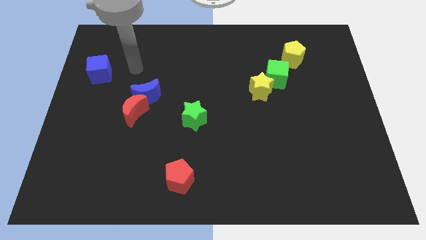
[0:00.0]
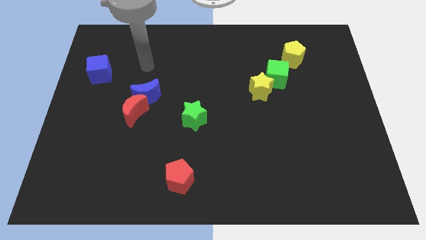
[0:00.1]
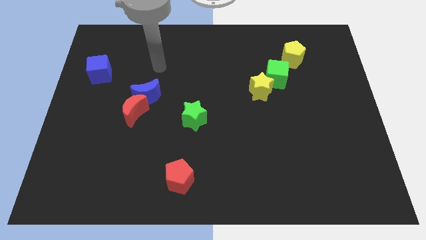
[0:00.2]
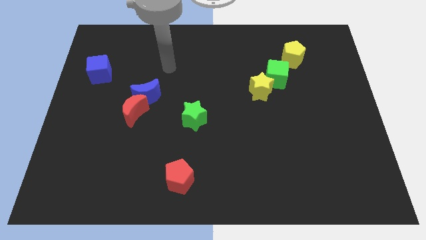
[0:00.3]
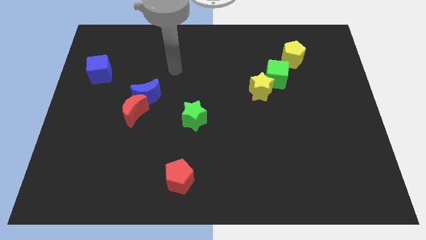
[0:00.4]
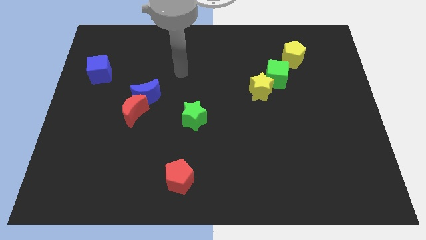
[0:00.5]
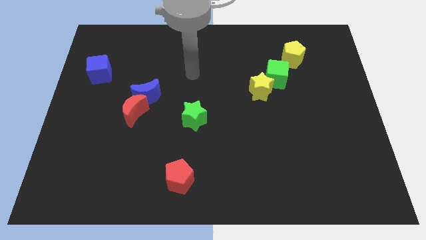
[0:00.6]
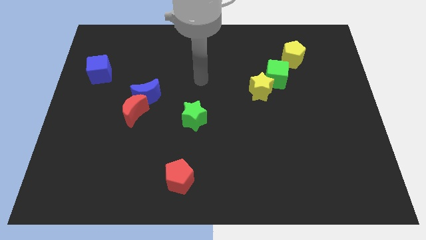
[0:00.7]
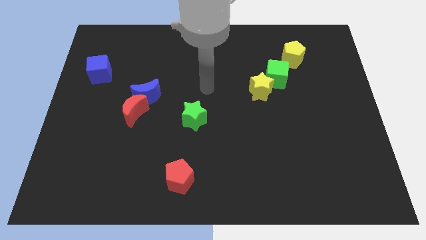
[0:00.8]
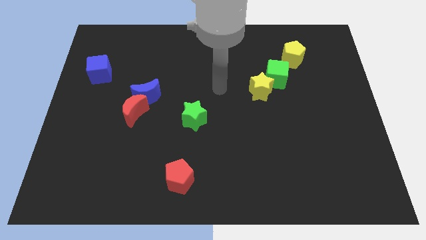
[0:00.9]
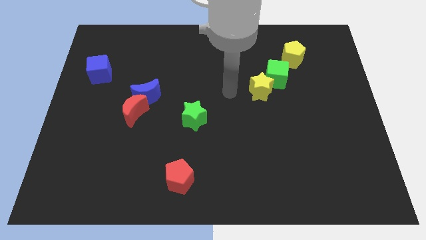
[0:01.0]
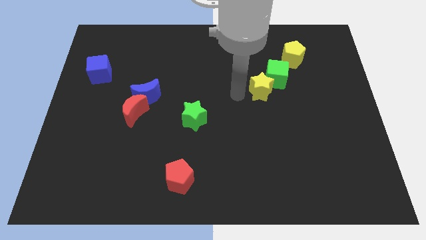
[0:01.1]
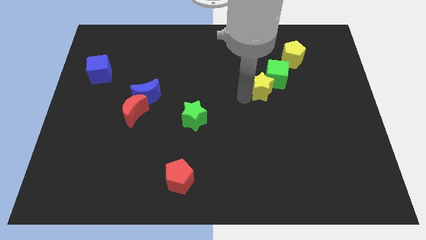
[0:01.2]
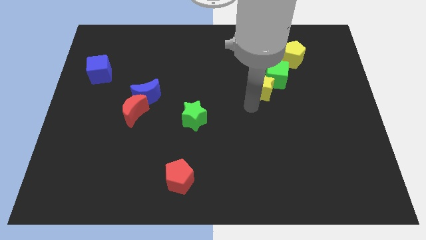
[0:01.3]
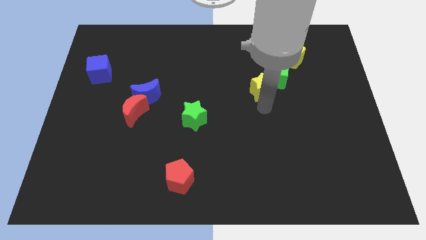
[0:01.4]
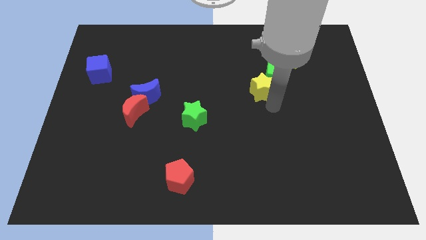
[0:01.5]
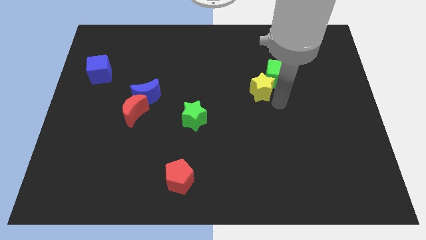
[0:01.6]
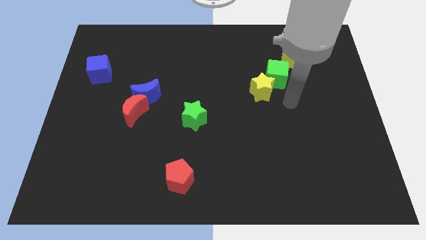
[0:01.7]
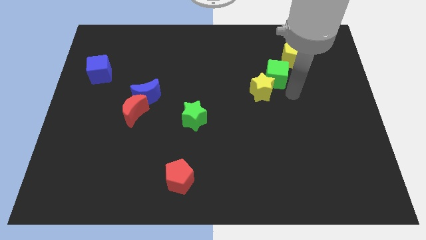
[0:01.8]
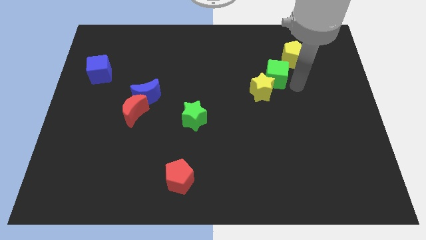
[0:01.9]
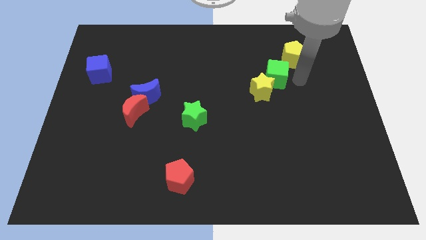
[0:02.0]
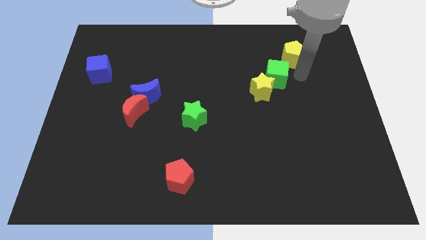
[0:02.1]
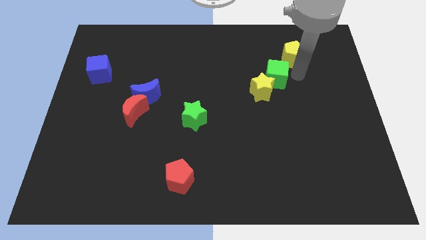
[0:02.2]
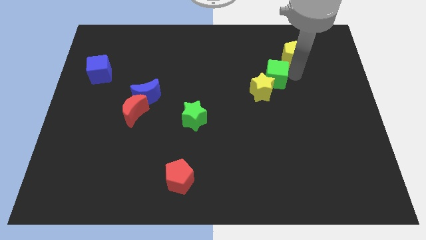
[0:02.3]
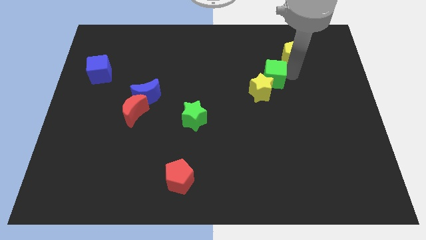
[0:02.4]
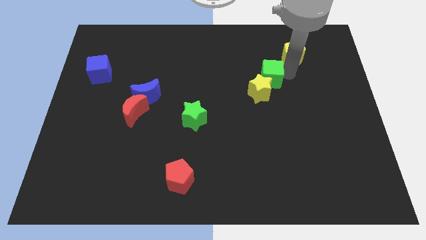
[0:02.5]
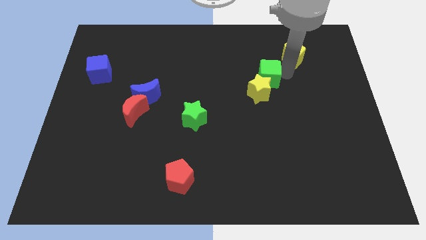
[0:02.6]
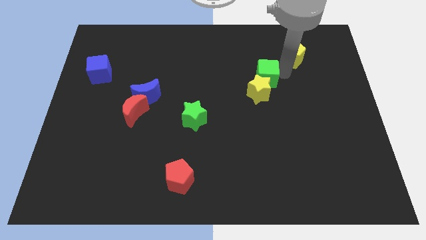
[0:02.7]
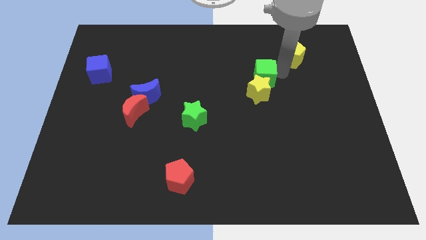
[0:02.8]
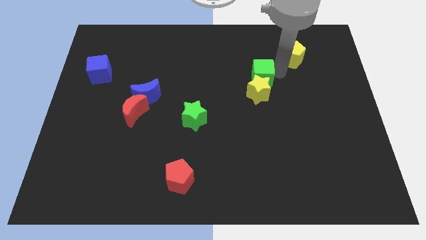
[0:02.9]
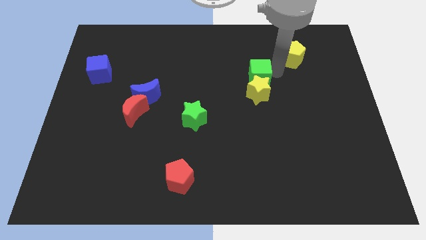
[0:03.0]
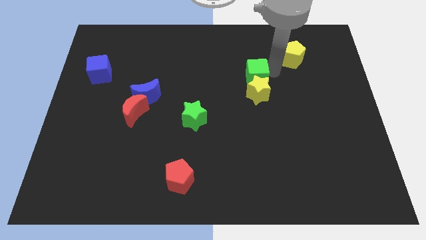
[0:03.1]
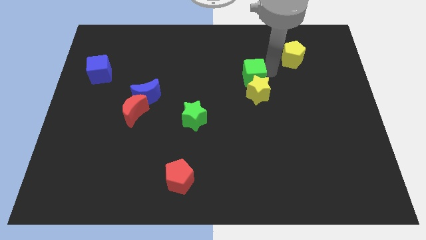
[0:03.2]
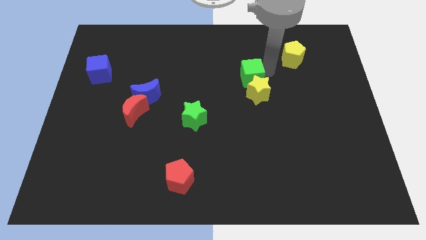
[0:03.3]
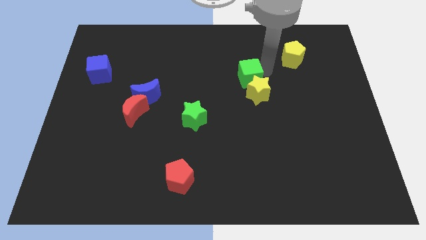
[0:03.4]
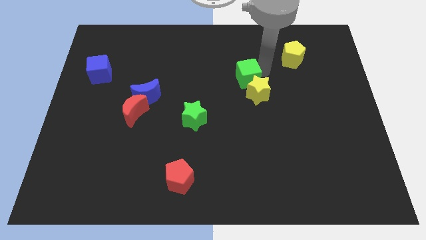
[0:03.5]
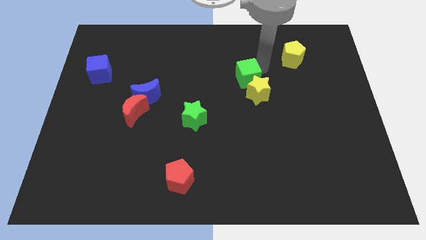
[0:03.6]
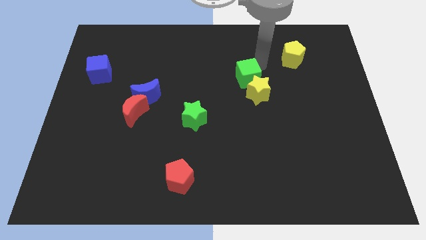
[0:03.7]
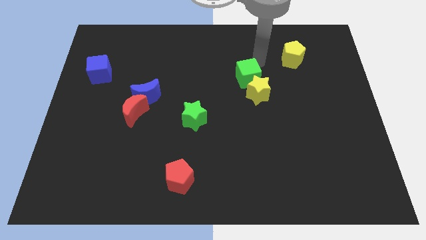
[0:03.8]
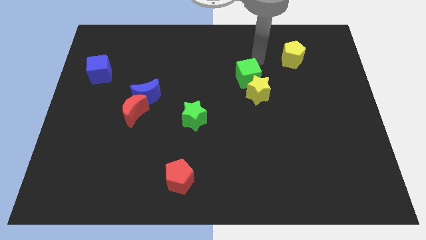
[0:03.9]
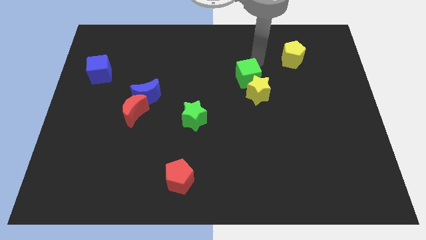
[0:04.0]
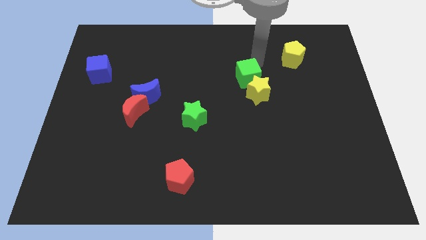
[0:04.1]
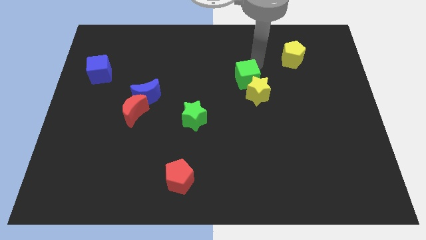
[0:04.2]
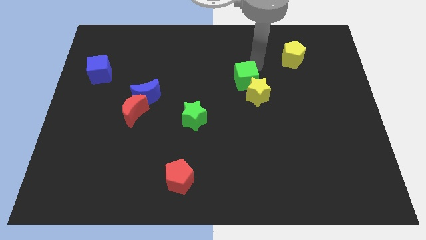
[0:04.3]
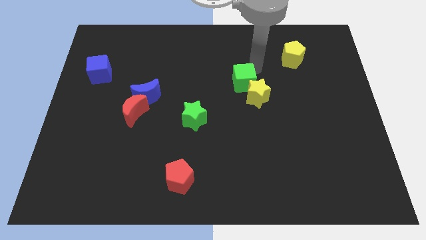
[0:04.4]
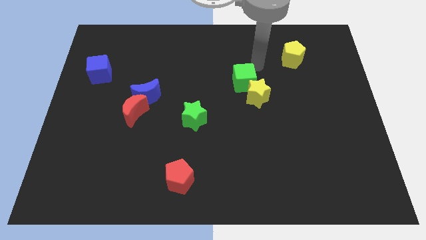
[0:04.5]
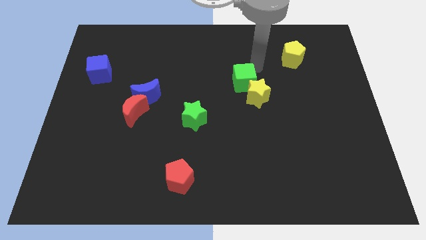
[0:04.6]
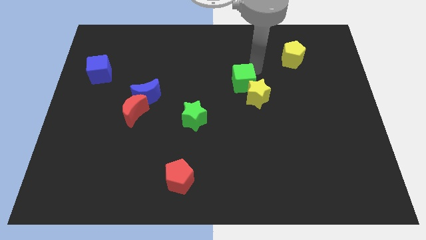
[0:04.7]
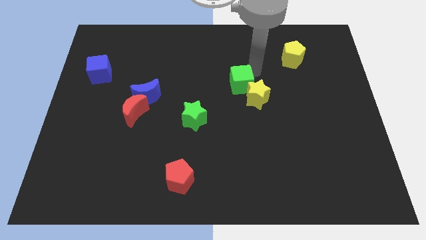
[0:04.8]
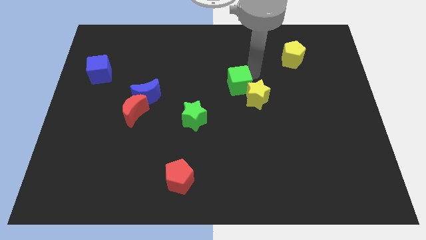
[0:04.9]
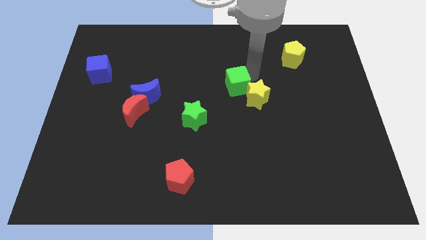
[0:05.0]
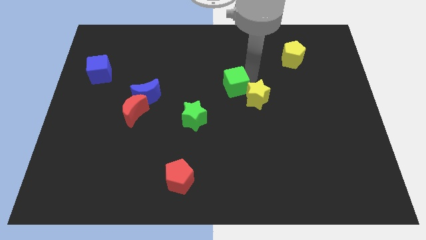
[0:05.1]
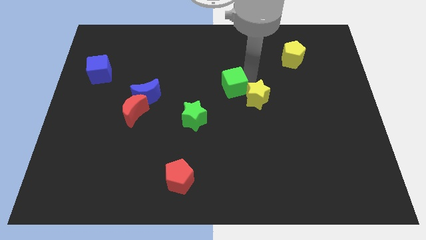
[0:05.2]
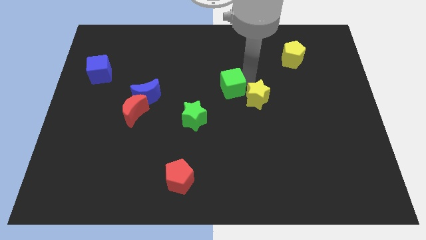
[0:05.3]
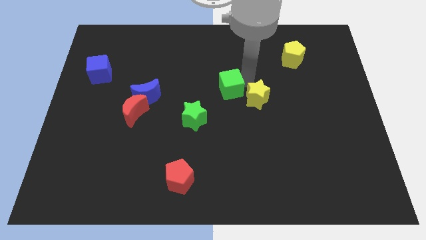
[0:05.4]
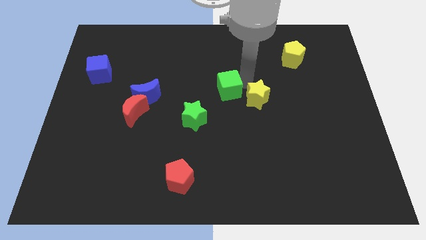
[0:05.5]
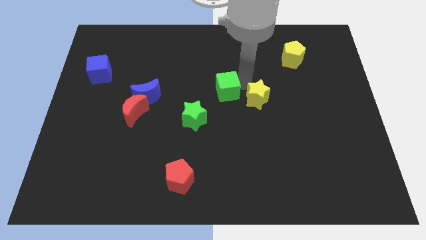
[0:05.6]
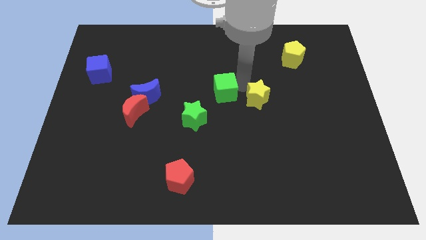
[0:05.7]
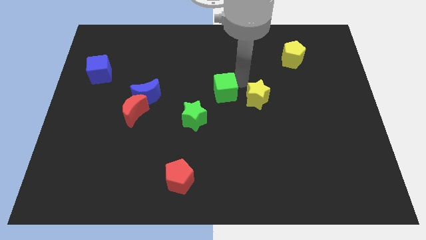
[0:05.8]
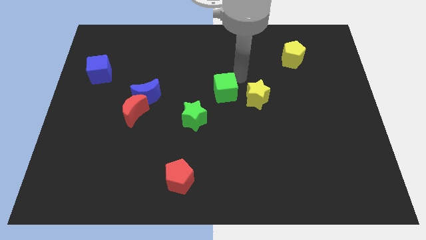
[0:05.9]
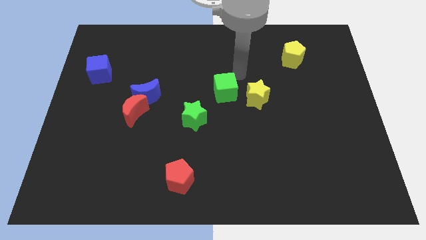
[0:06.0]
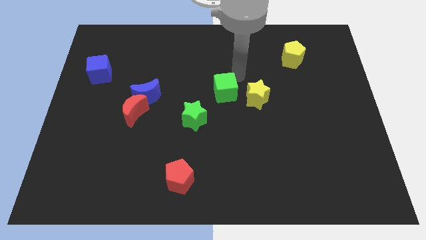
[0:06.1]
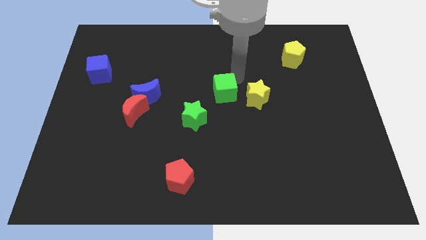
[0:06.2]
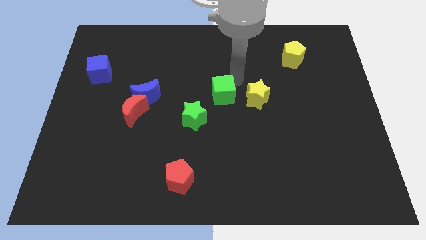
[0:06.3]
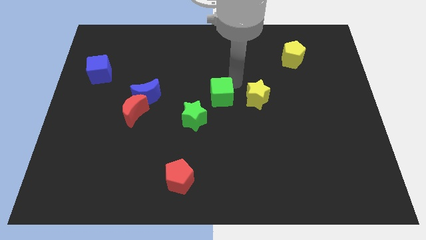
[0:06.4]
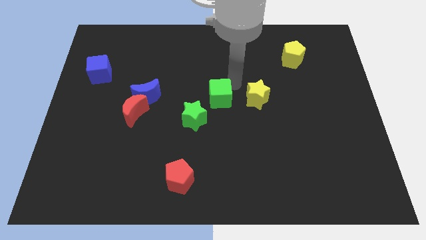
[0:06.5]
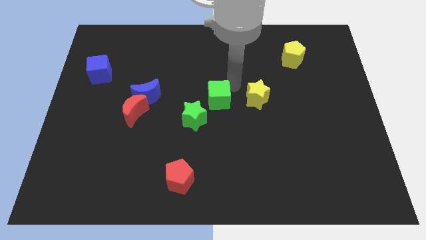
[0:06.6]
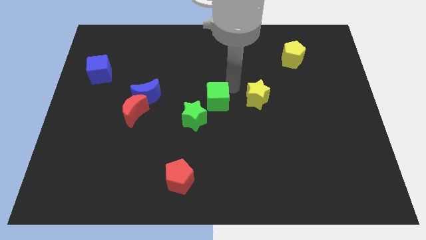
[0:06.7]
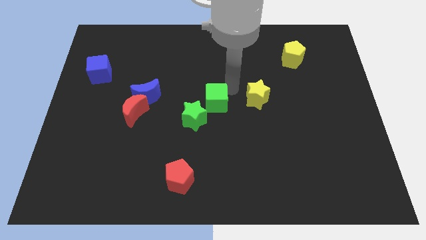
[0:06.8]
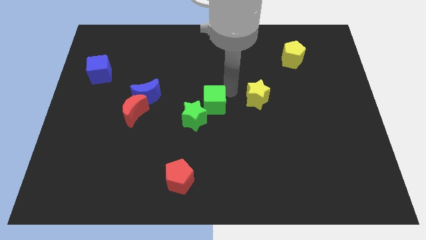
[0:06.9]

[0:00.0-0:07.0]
put the green cube close to the green star
